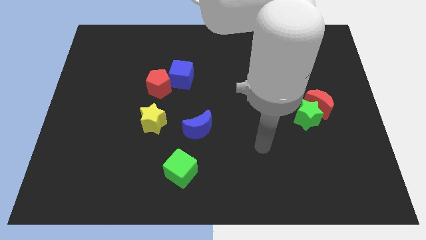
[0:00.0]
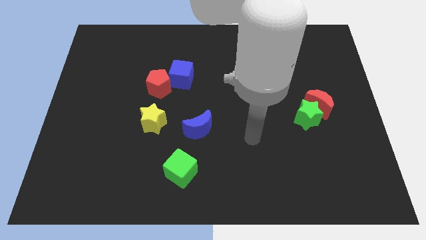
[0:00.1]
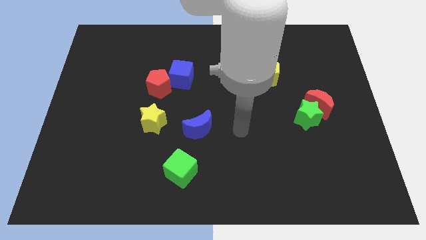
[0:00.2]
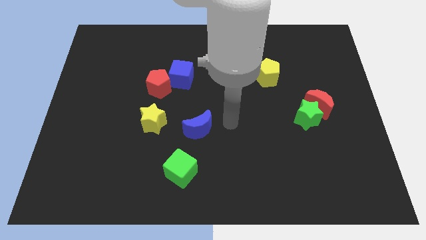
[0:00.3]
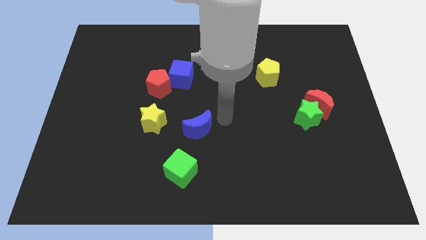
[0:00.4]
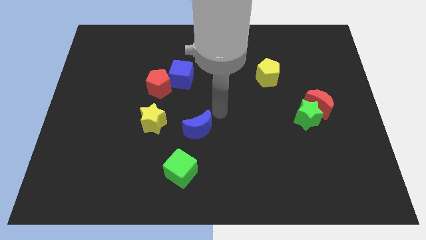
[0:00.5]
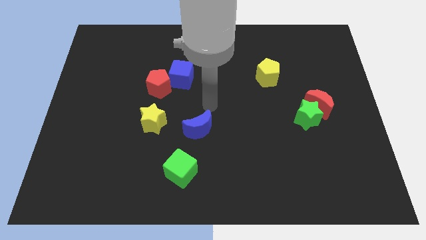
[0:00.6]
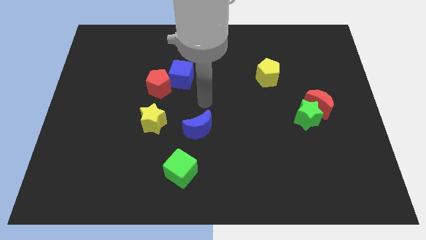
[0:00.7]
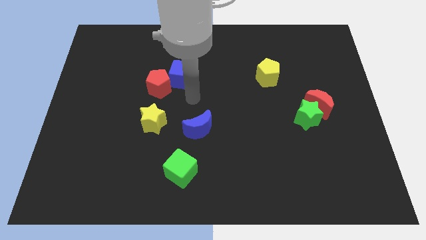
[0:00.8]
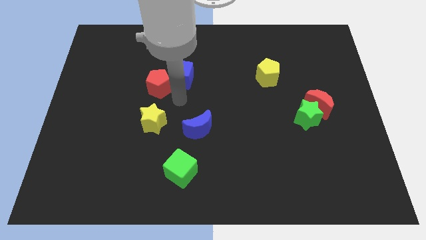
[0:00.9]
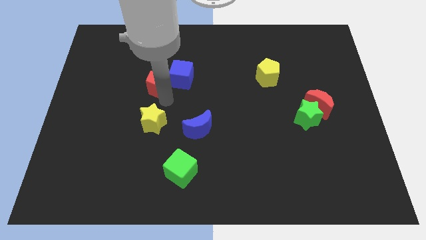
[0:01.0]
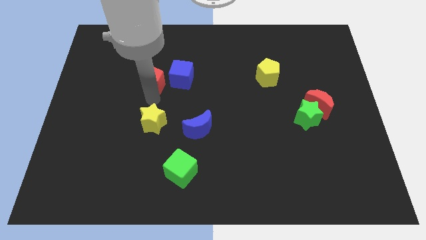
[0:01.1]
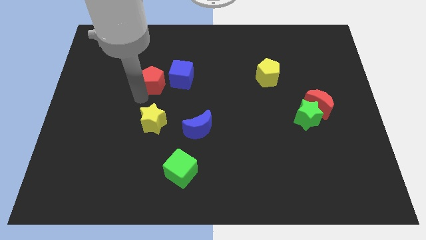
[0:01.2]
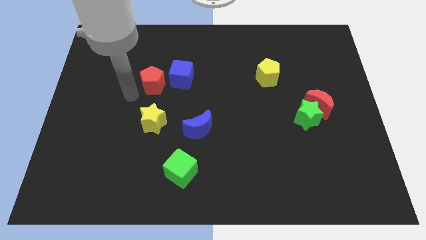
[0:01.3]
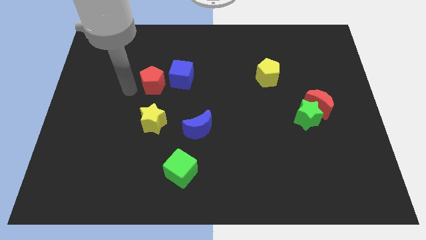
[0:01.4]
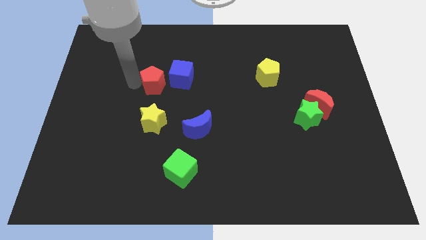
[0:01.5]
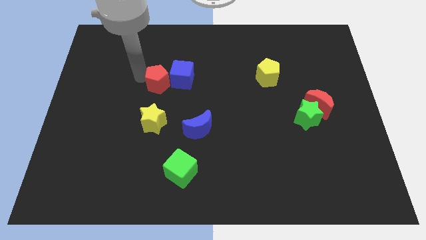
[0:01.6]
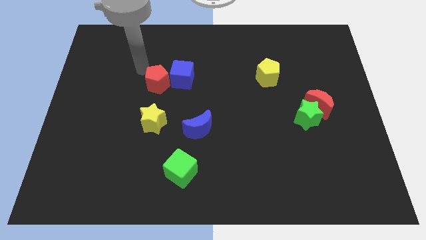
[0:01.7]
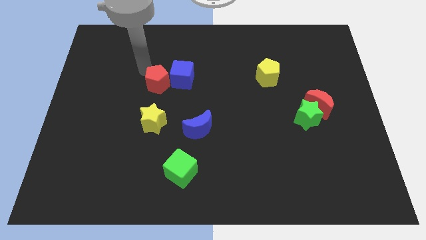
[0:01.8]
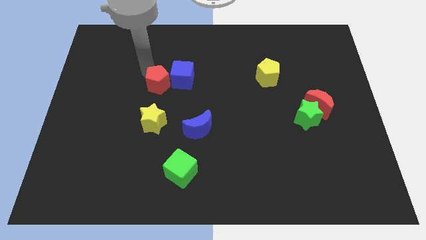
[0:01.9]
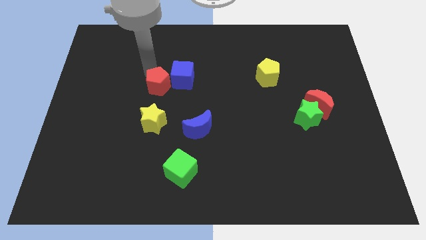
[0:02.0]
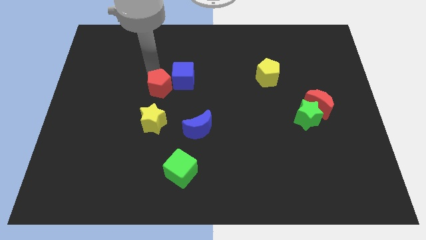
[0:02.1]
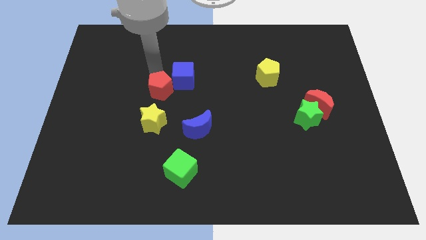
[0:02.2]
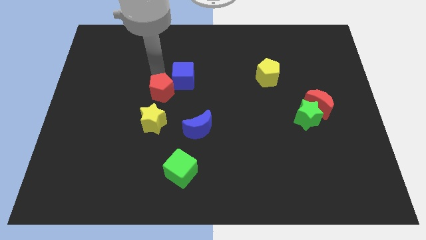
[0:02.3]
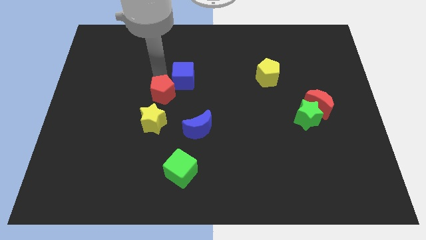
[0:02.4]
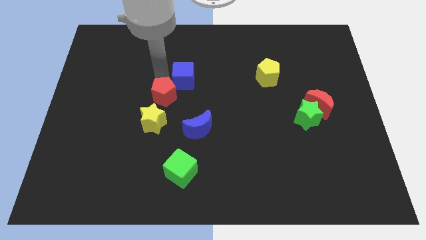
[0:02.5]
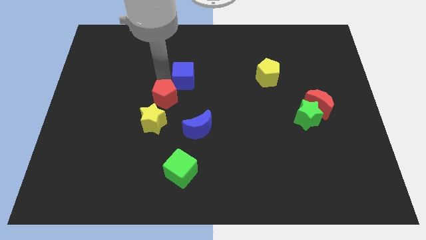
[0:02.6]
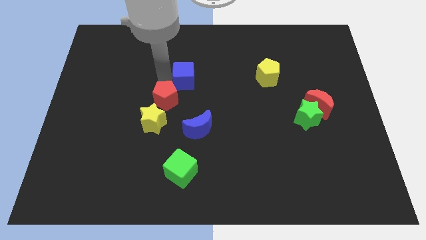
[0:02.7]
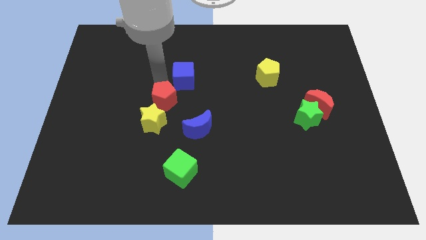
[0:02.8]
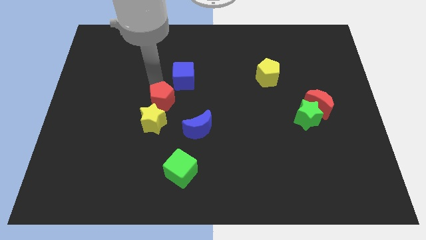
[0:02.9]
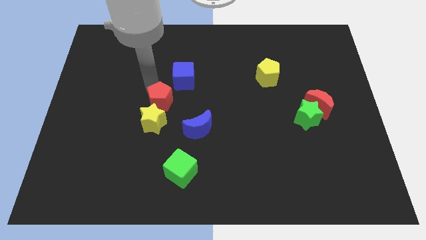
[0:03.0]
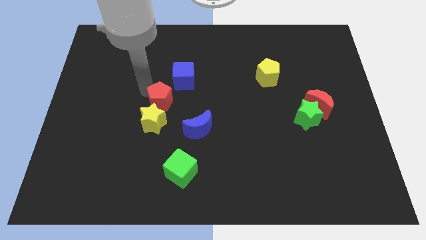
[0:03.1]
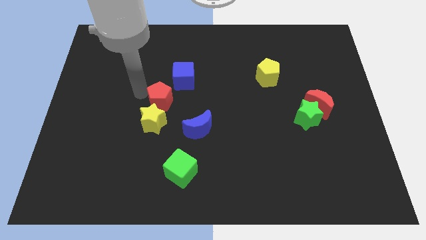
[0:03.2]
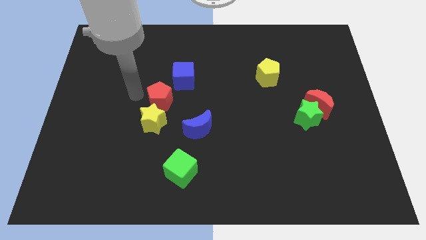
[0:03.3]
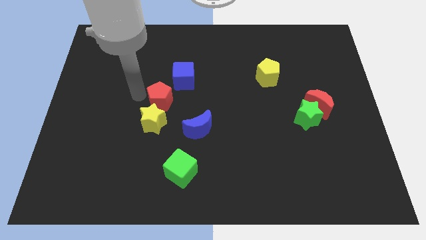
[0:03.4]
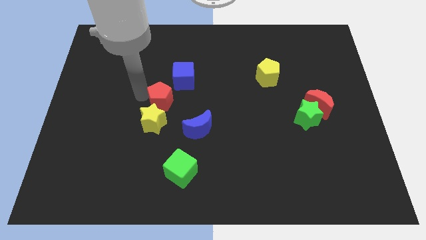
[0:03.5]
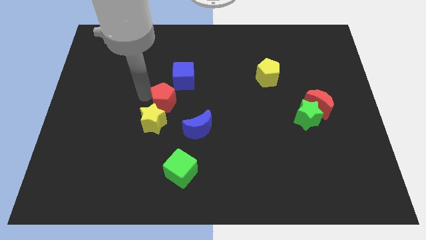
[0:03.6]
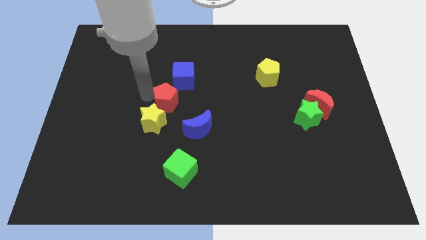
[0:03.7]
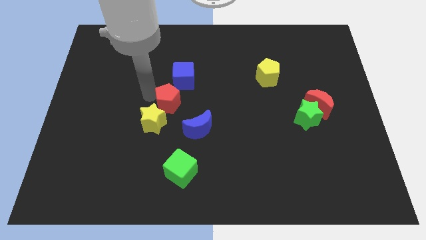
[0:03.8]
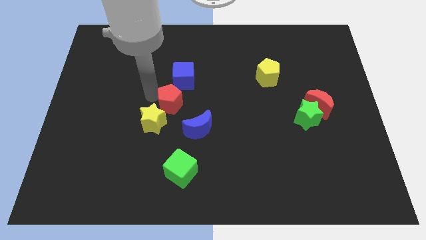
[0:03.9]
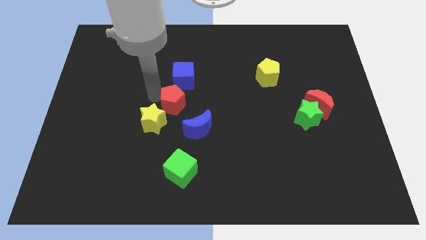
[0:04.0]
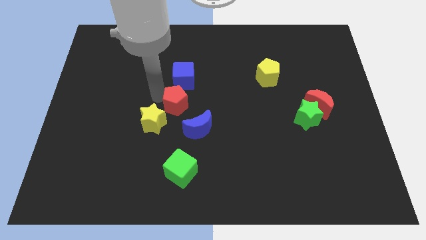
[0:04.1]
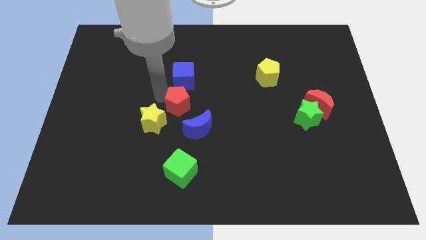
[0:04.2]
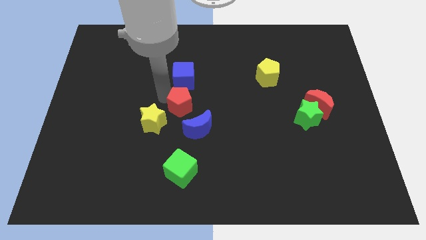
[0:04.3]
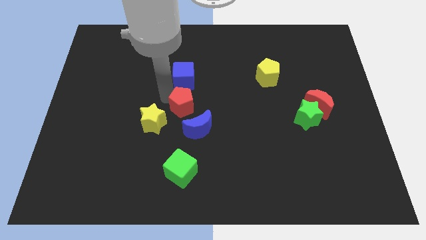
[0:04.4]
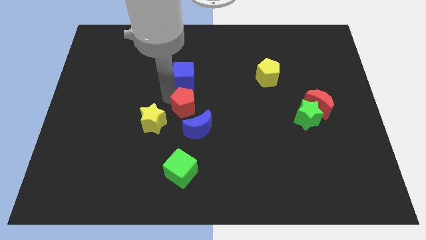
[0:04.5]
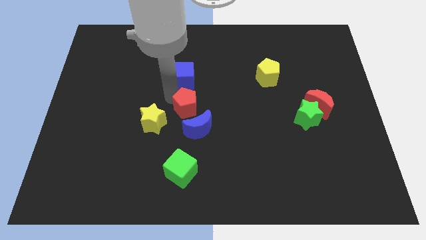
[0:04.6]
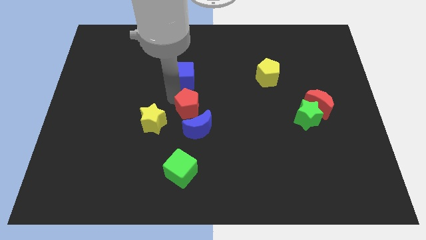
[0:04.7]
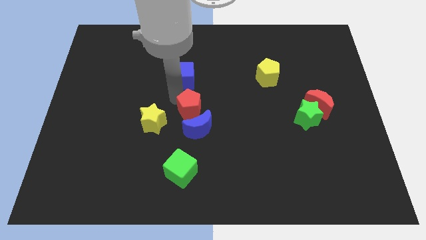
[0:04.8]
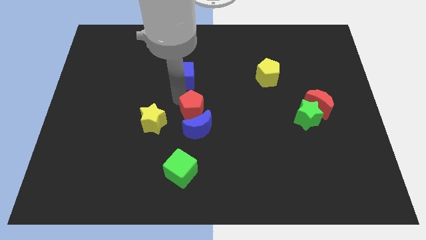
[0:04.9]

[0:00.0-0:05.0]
put the red pentagon next to the blue moon
